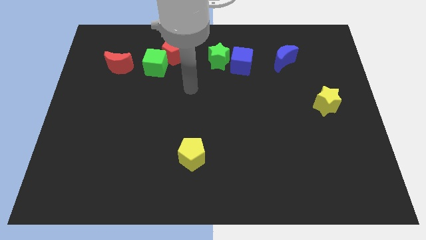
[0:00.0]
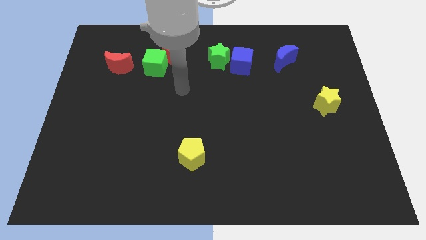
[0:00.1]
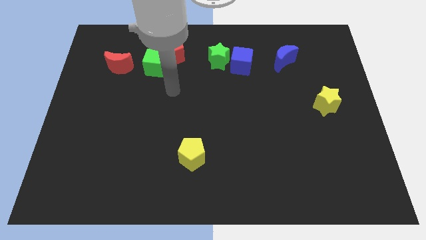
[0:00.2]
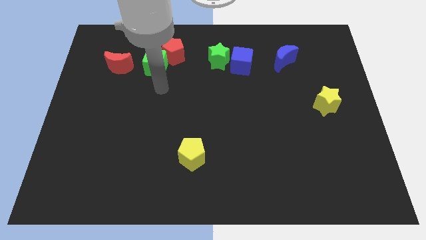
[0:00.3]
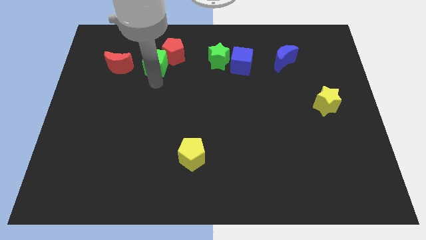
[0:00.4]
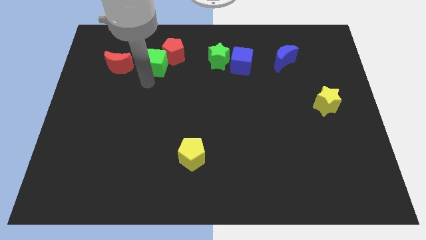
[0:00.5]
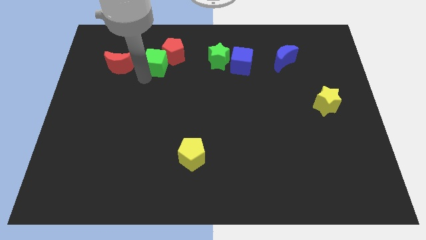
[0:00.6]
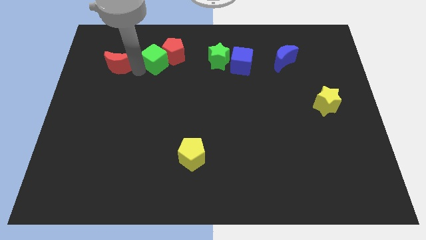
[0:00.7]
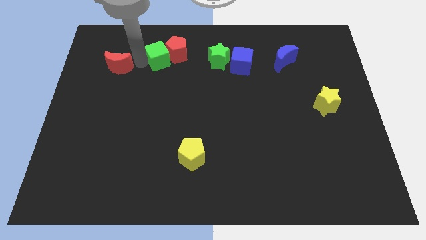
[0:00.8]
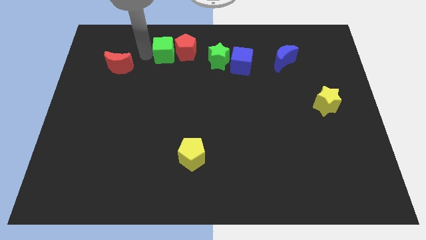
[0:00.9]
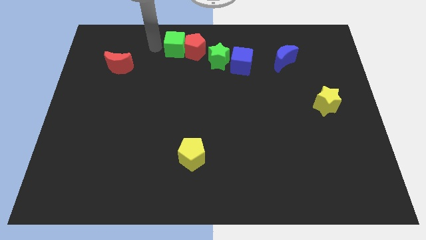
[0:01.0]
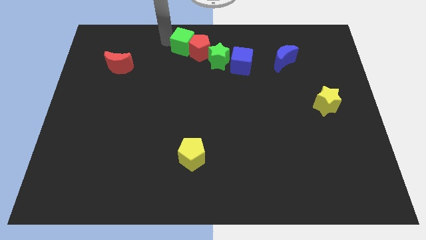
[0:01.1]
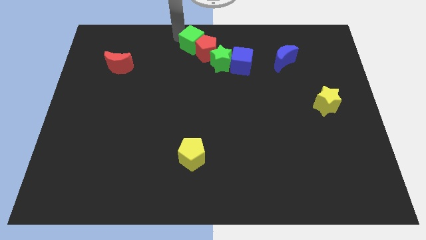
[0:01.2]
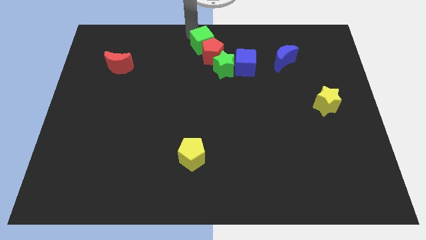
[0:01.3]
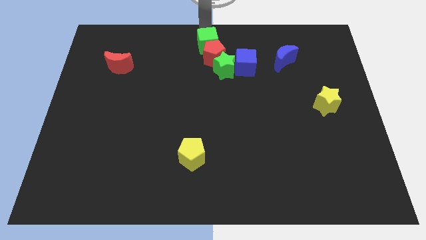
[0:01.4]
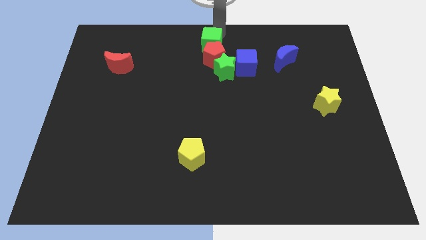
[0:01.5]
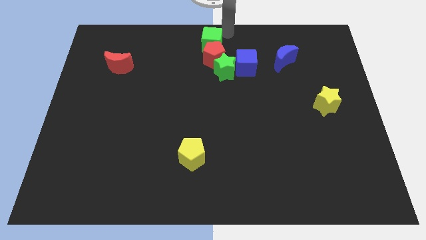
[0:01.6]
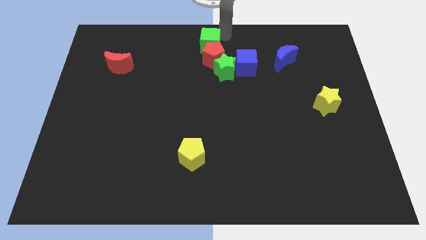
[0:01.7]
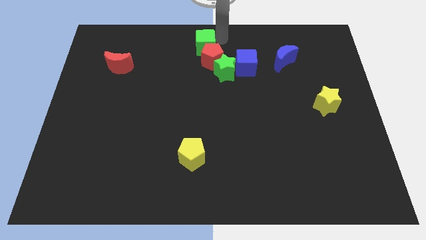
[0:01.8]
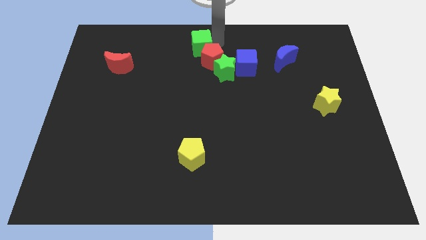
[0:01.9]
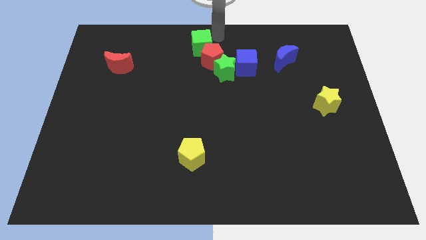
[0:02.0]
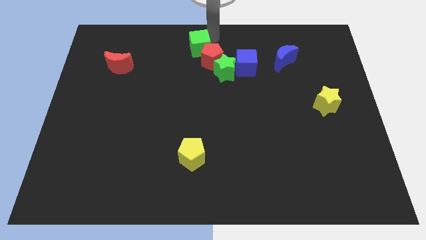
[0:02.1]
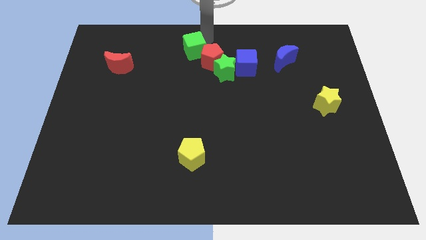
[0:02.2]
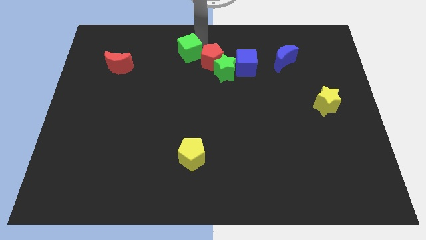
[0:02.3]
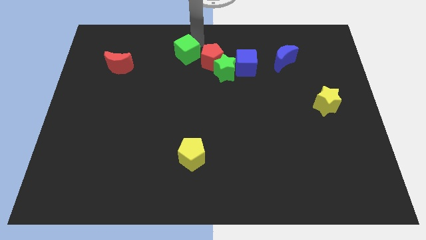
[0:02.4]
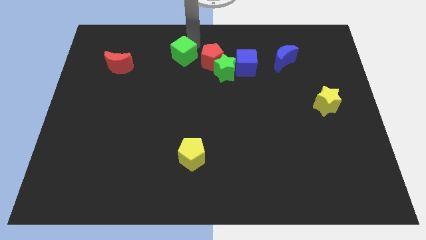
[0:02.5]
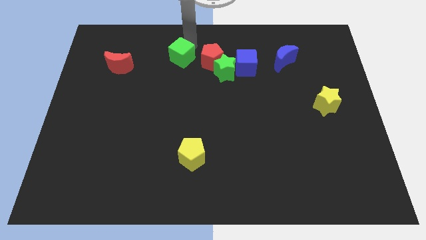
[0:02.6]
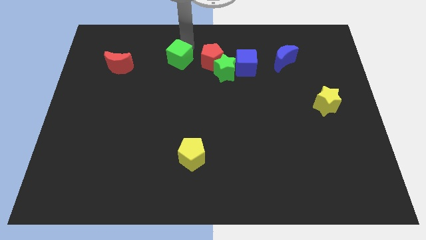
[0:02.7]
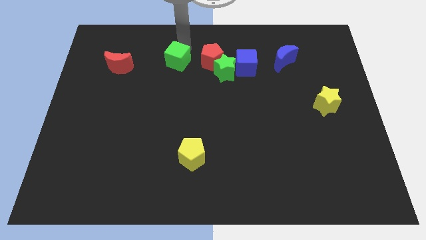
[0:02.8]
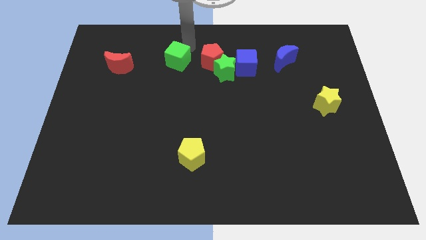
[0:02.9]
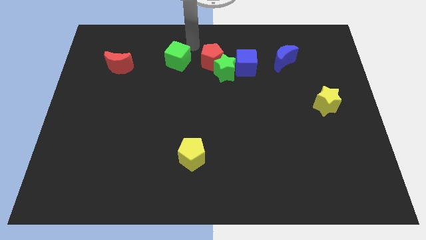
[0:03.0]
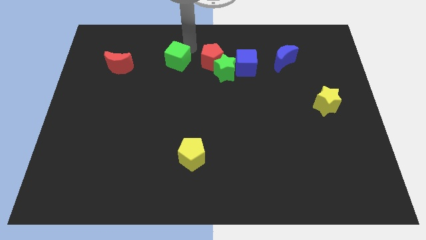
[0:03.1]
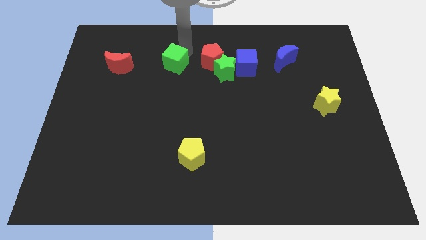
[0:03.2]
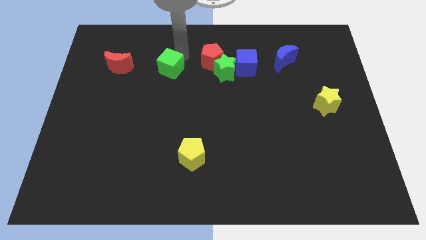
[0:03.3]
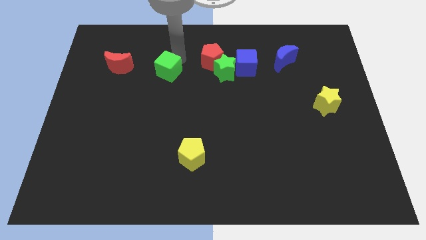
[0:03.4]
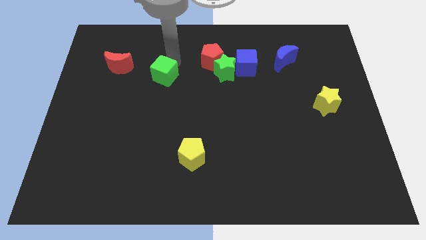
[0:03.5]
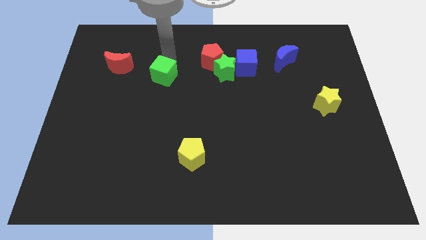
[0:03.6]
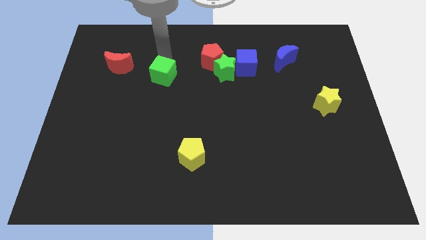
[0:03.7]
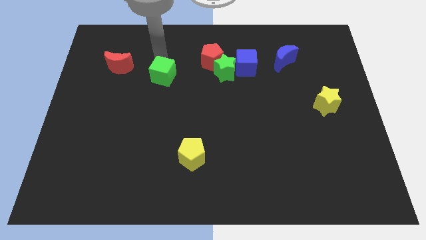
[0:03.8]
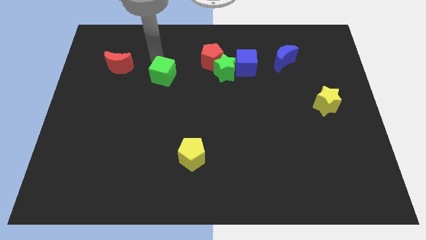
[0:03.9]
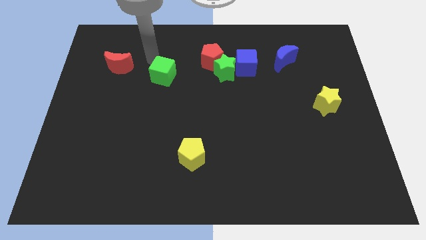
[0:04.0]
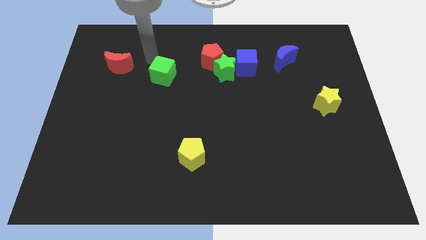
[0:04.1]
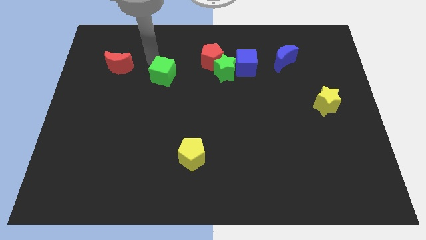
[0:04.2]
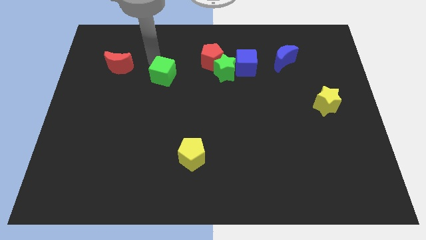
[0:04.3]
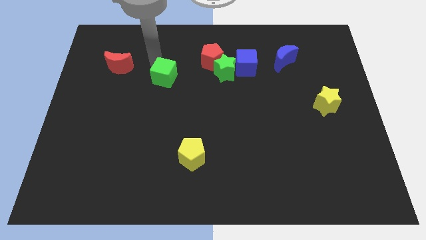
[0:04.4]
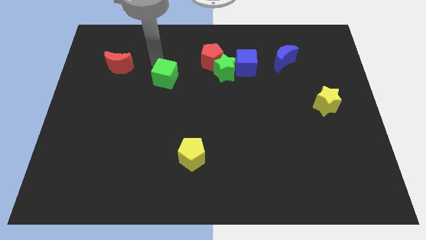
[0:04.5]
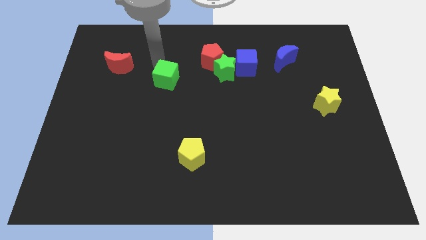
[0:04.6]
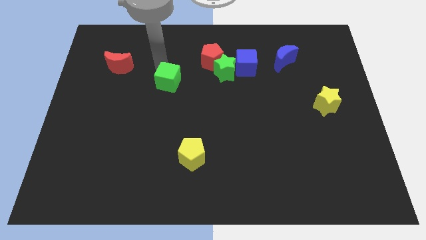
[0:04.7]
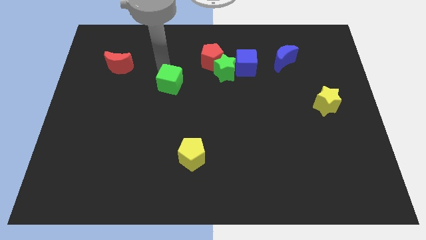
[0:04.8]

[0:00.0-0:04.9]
slide the green cube a bit diagonally down and to the right

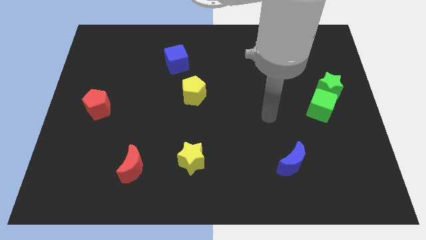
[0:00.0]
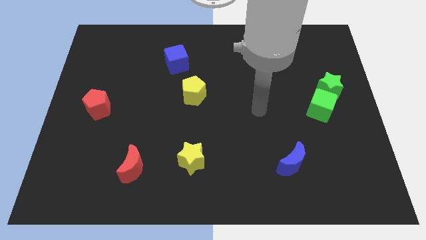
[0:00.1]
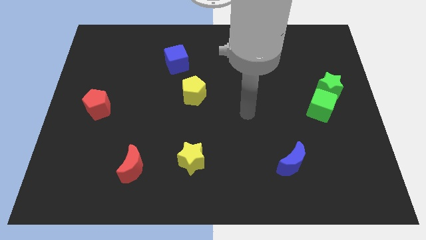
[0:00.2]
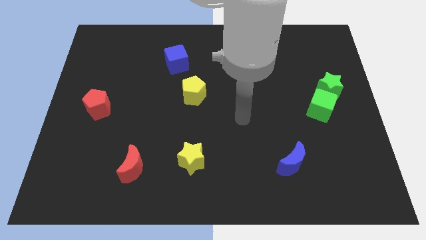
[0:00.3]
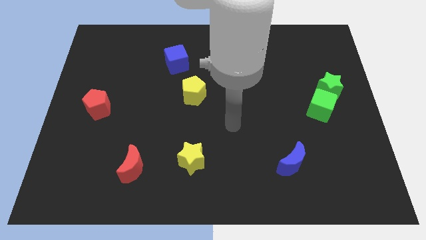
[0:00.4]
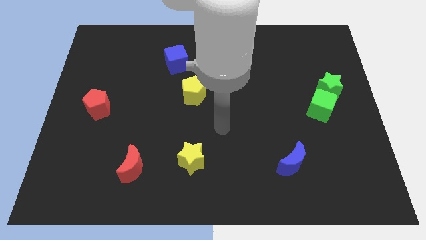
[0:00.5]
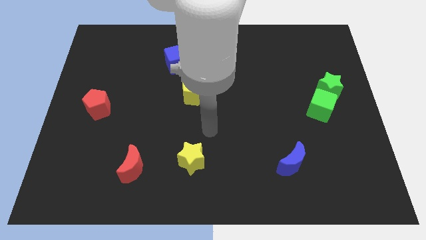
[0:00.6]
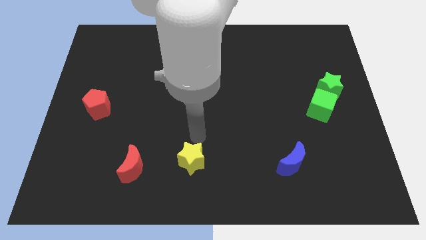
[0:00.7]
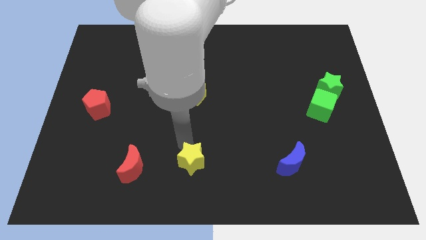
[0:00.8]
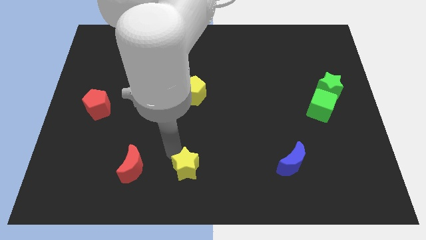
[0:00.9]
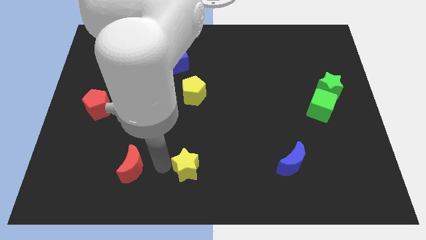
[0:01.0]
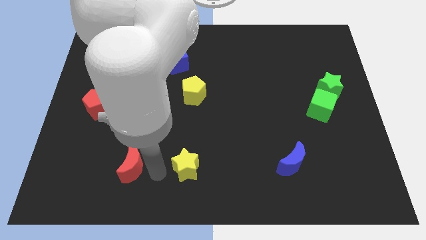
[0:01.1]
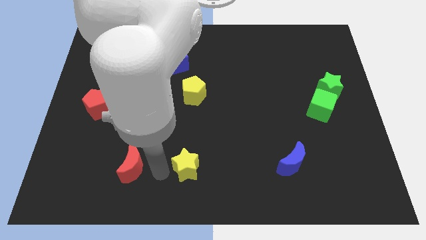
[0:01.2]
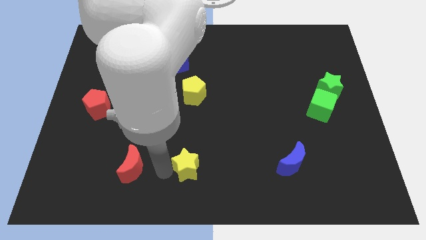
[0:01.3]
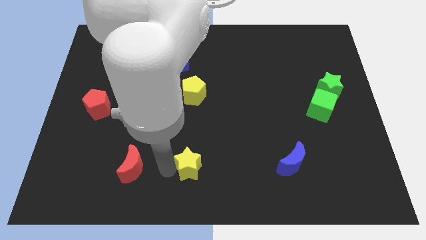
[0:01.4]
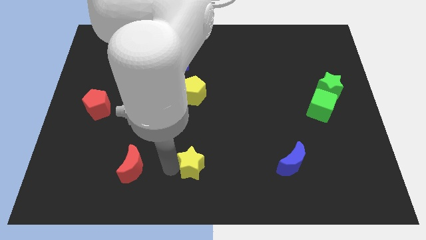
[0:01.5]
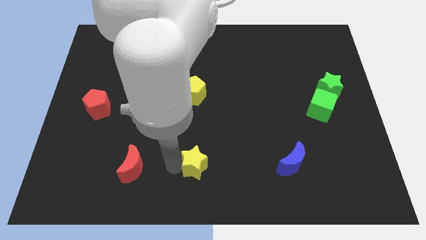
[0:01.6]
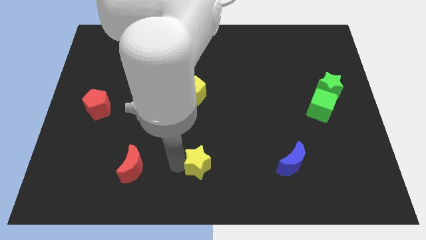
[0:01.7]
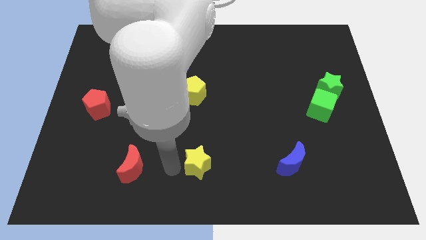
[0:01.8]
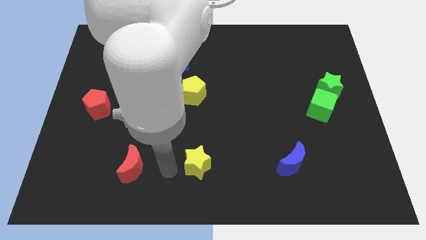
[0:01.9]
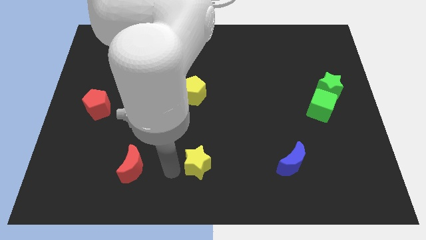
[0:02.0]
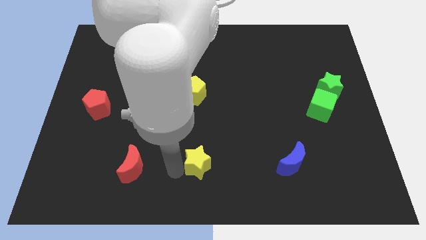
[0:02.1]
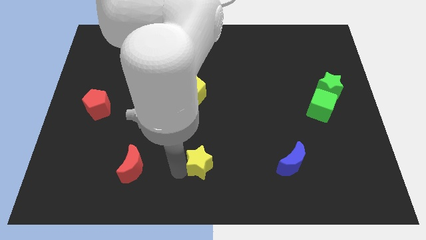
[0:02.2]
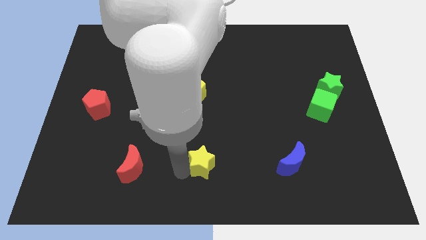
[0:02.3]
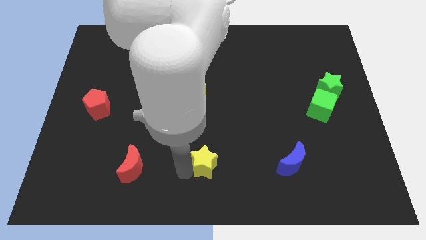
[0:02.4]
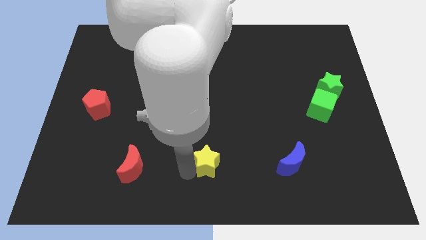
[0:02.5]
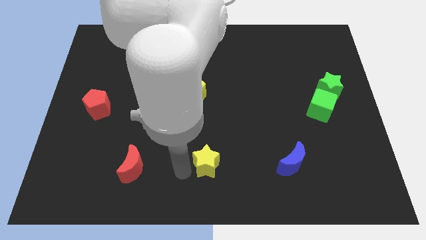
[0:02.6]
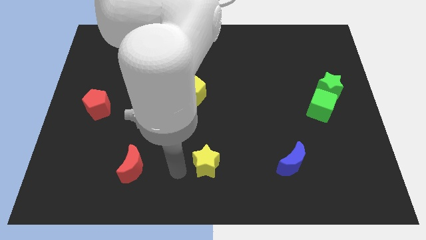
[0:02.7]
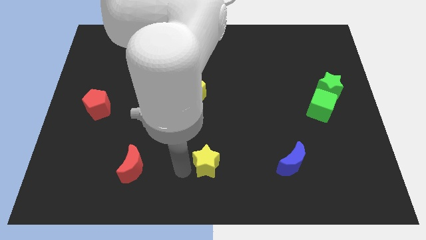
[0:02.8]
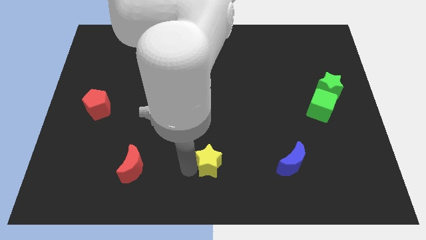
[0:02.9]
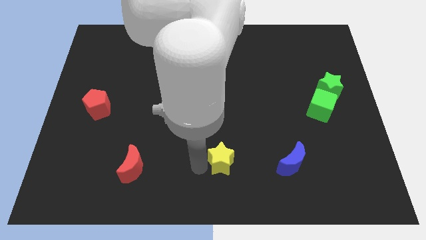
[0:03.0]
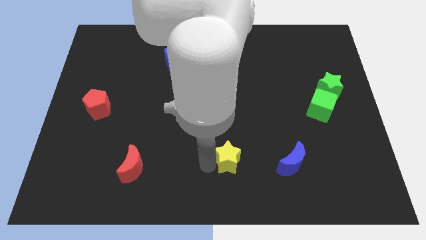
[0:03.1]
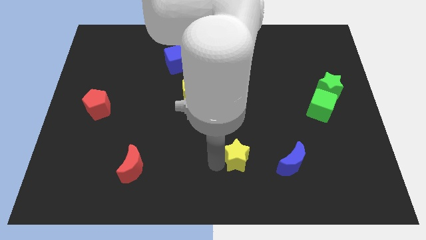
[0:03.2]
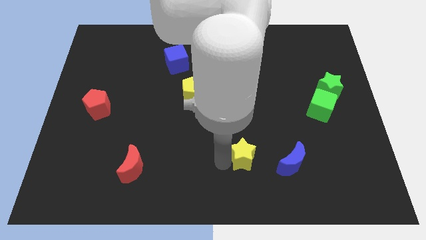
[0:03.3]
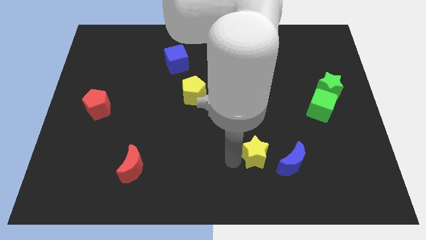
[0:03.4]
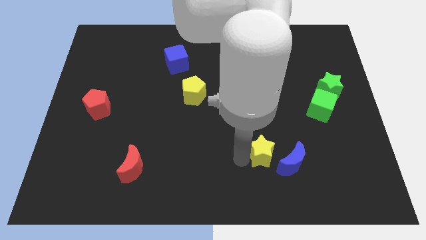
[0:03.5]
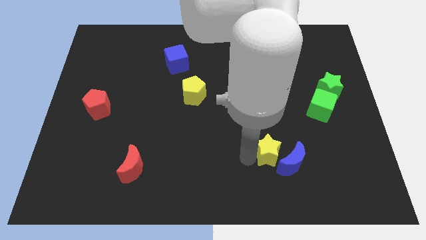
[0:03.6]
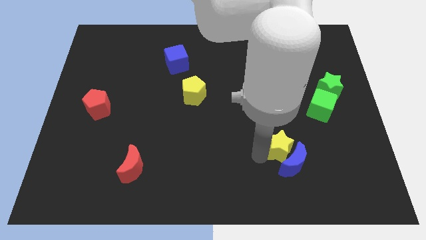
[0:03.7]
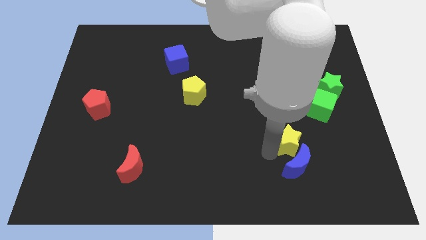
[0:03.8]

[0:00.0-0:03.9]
slide the yellow star to the right
